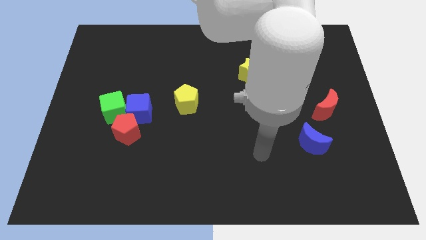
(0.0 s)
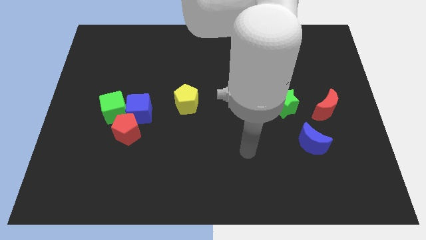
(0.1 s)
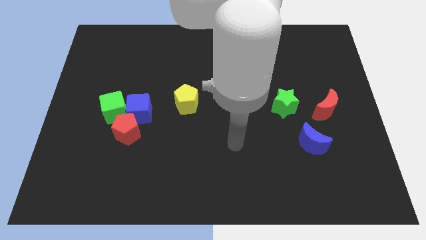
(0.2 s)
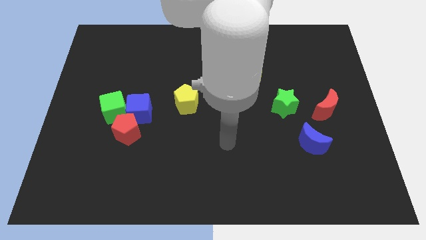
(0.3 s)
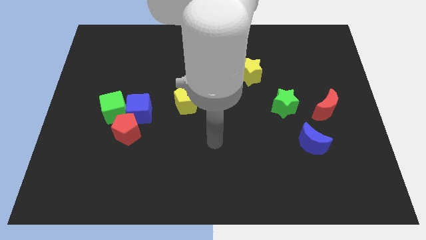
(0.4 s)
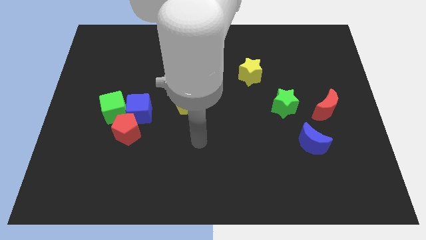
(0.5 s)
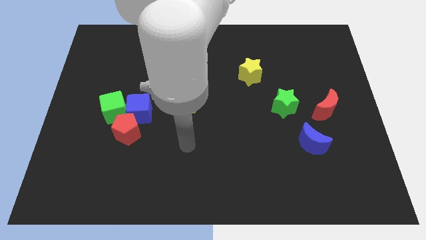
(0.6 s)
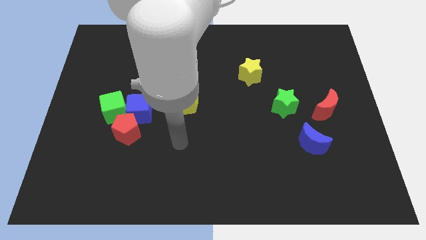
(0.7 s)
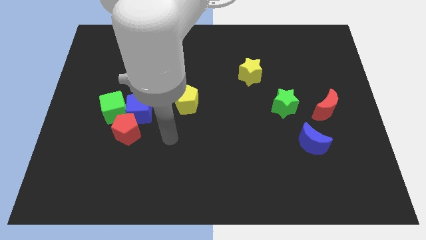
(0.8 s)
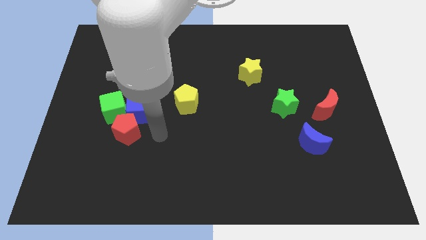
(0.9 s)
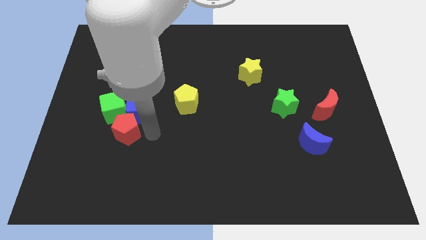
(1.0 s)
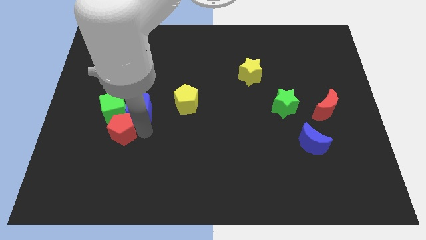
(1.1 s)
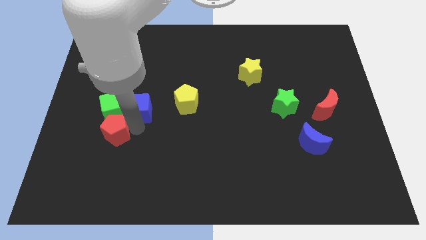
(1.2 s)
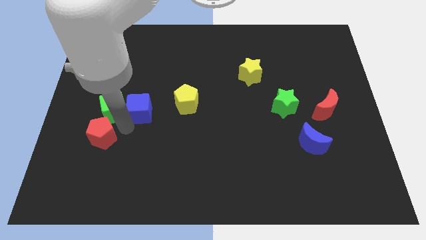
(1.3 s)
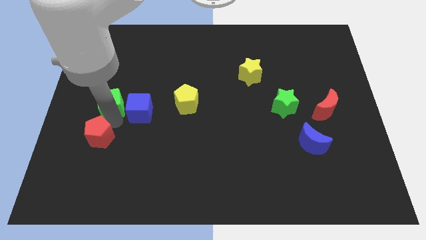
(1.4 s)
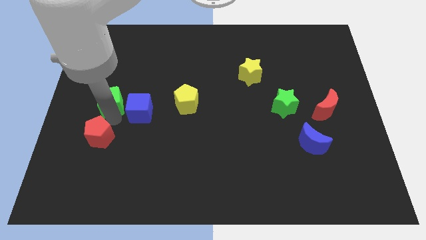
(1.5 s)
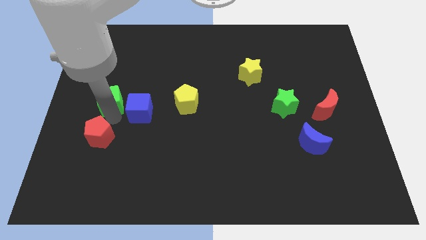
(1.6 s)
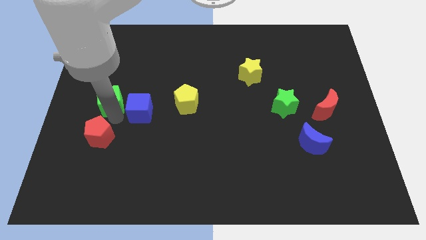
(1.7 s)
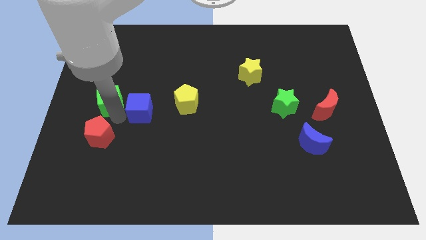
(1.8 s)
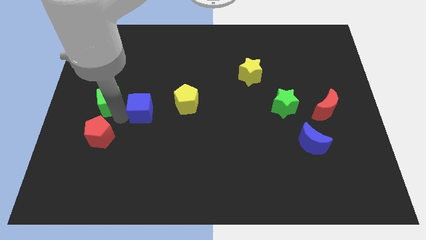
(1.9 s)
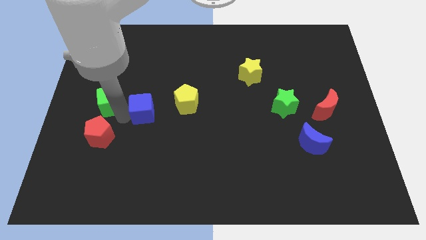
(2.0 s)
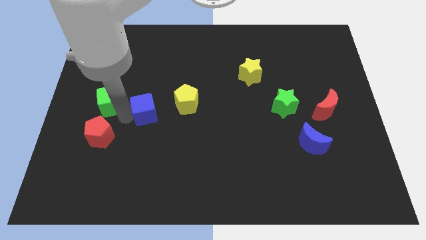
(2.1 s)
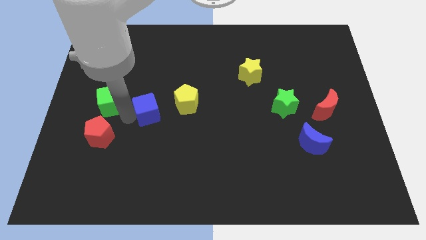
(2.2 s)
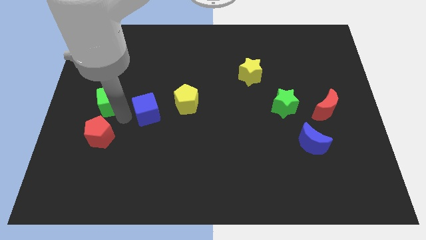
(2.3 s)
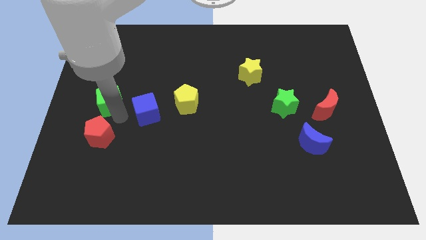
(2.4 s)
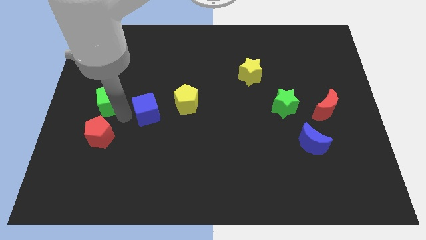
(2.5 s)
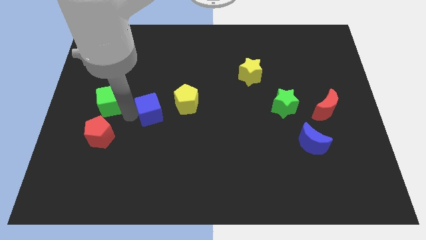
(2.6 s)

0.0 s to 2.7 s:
separate the blue cube from the green cube and red pentagon

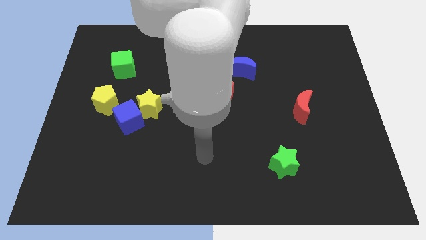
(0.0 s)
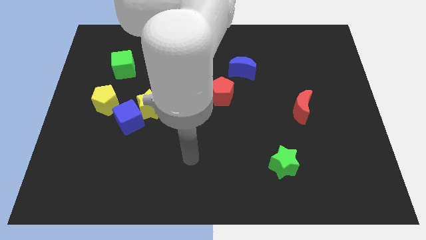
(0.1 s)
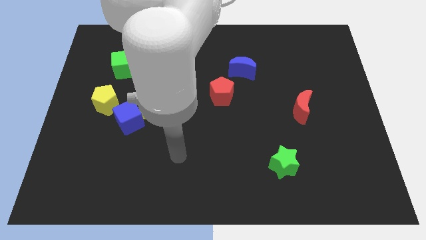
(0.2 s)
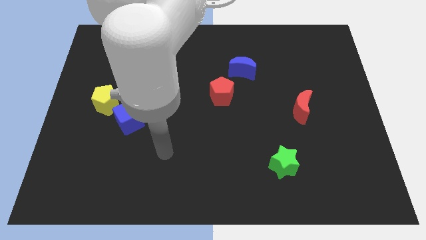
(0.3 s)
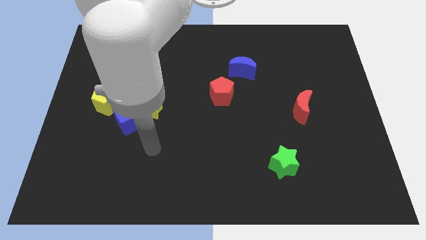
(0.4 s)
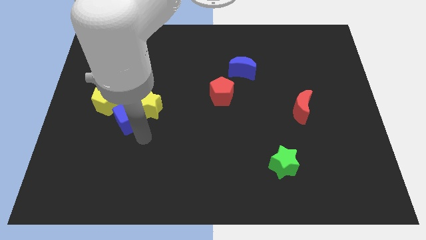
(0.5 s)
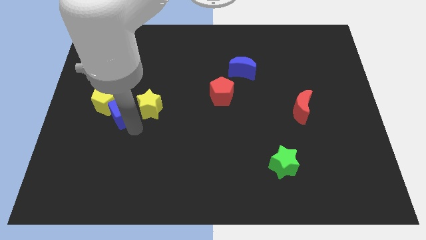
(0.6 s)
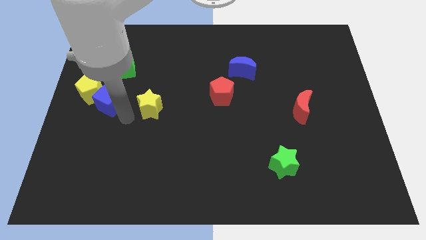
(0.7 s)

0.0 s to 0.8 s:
move the yellow star away from the blue cube

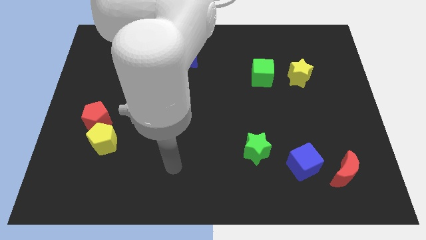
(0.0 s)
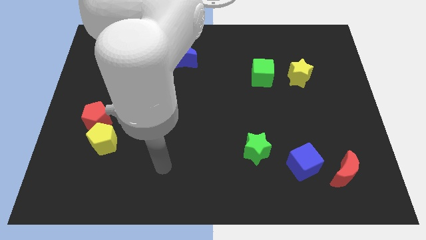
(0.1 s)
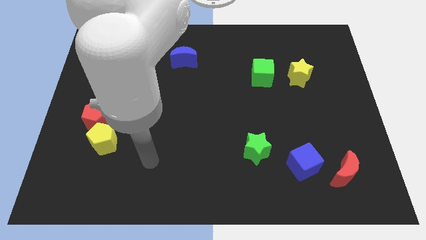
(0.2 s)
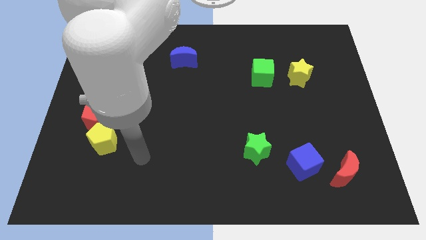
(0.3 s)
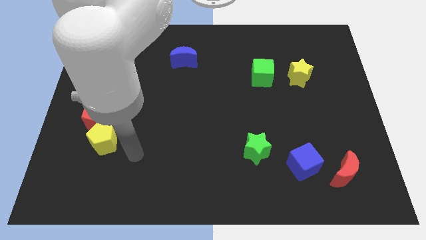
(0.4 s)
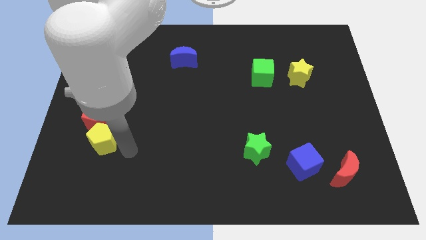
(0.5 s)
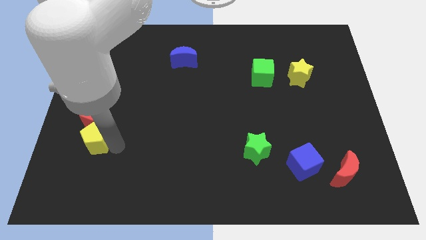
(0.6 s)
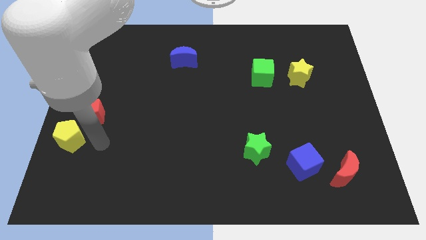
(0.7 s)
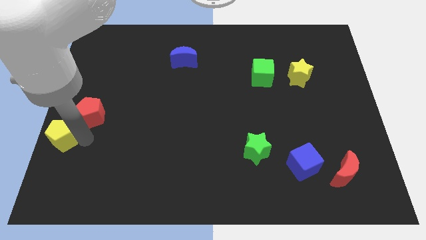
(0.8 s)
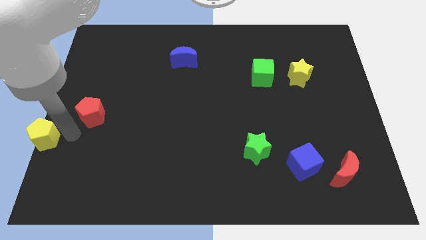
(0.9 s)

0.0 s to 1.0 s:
pull the red pentagon apart from the yellow pentagon

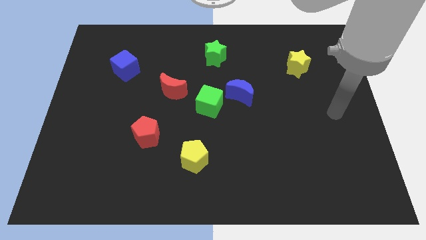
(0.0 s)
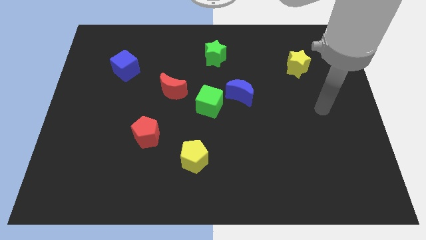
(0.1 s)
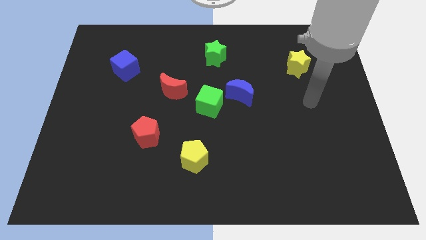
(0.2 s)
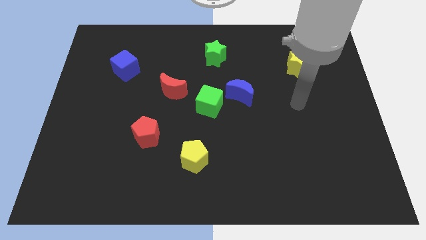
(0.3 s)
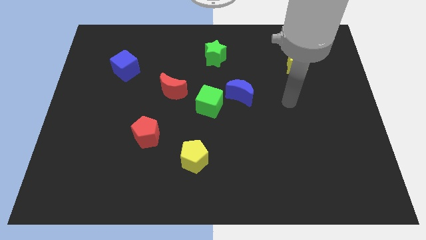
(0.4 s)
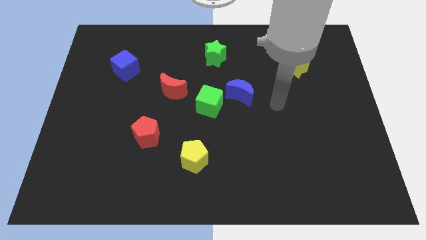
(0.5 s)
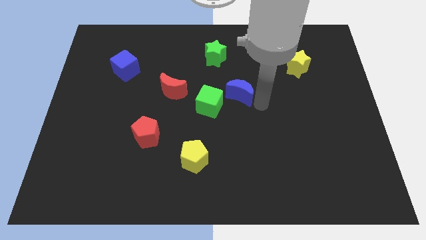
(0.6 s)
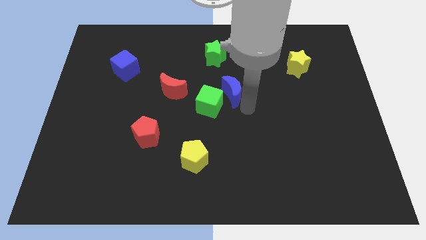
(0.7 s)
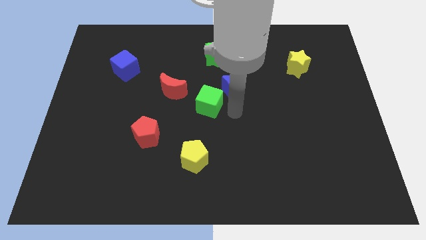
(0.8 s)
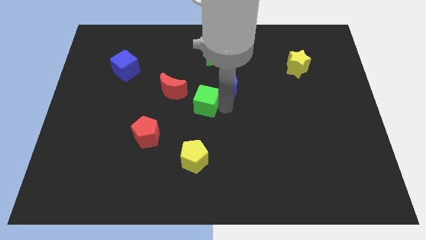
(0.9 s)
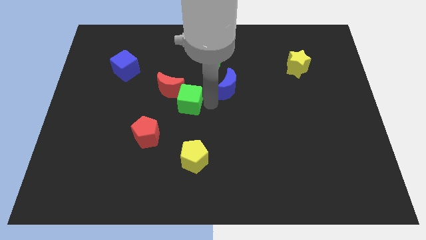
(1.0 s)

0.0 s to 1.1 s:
separate the blue moon from the green cube

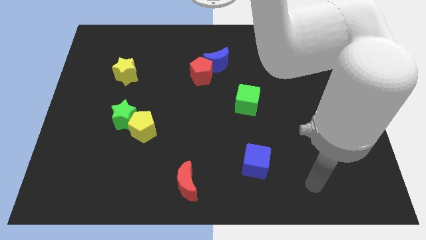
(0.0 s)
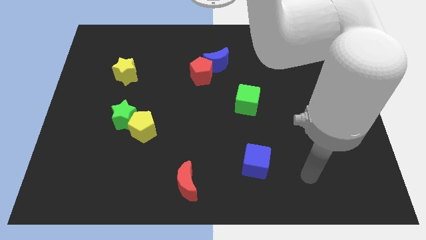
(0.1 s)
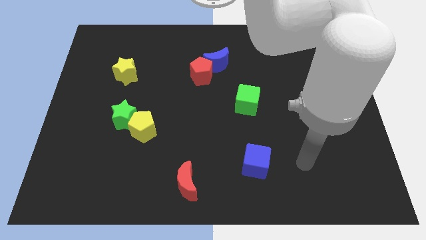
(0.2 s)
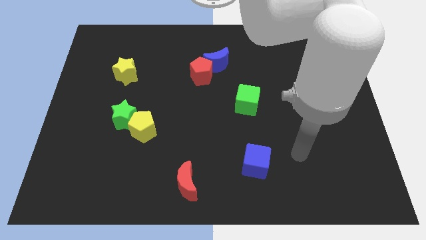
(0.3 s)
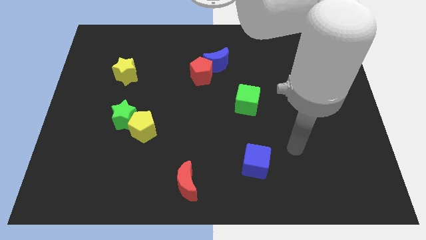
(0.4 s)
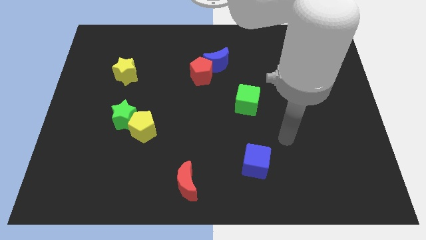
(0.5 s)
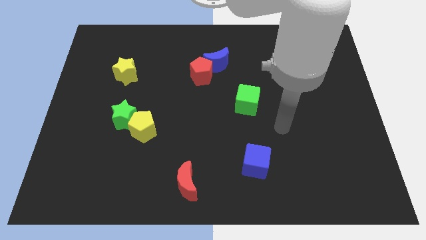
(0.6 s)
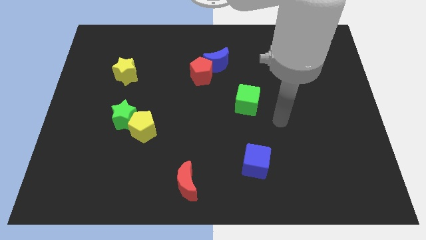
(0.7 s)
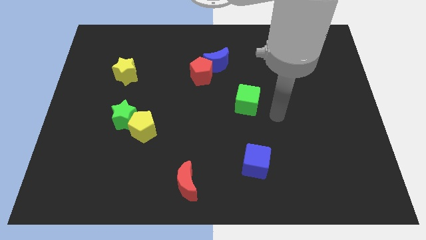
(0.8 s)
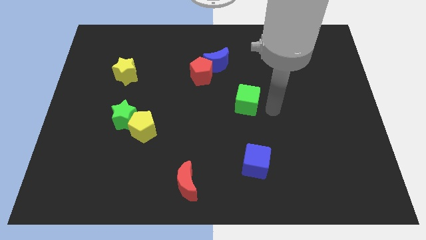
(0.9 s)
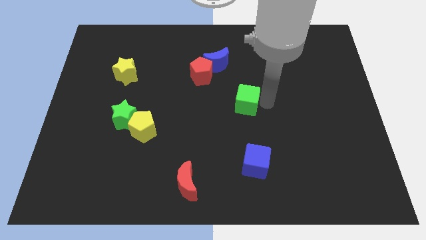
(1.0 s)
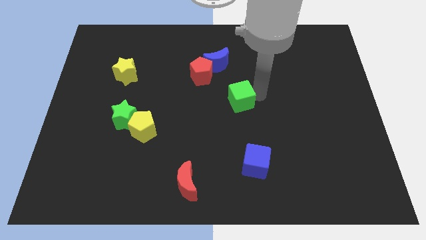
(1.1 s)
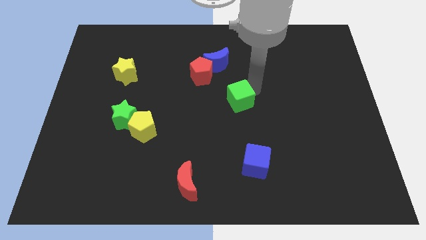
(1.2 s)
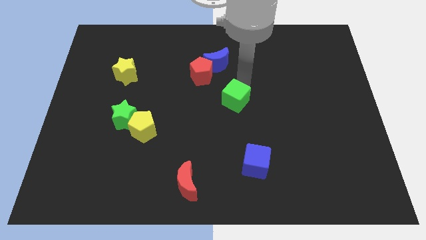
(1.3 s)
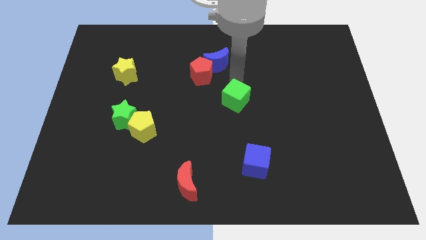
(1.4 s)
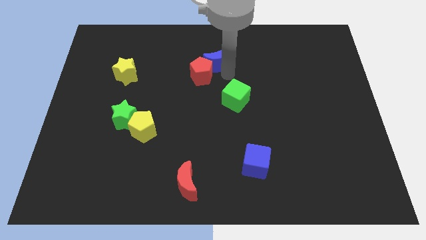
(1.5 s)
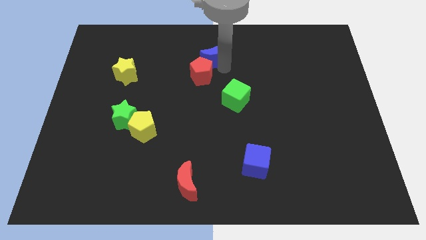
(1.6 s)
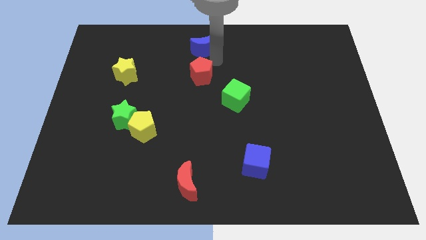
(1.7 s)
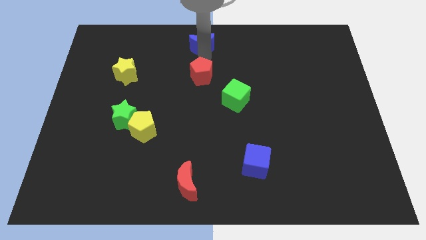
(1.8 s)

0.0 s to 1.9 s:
move the red pentagon away from the blue moon

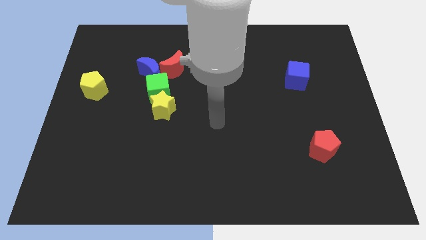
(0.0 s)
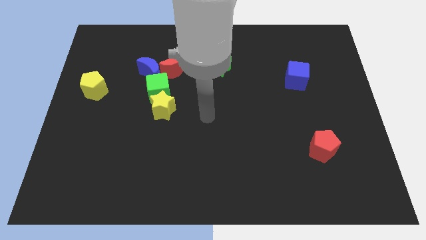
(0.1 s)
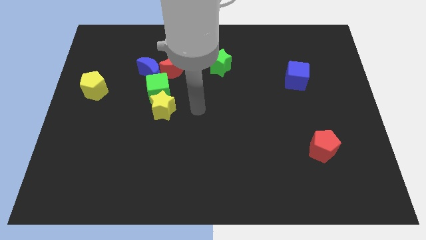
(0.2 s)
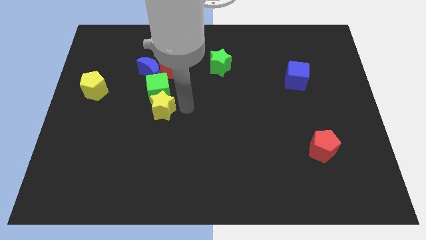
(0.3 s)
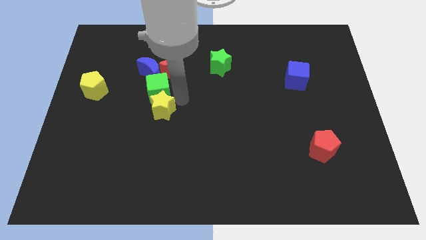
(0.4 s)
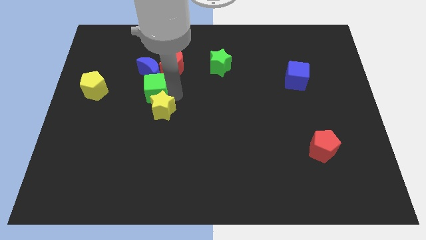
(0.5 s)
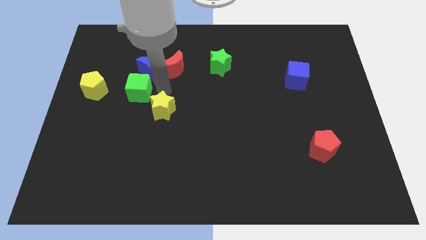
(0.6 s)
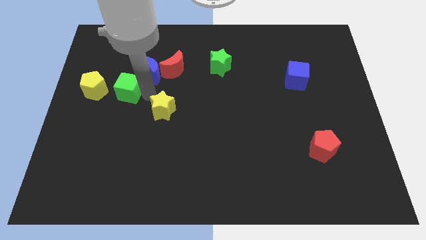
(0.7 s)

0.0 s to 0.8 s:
pull the yellow star apart from the green cube

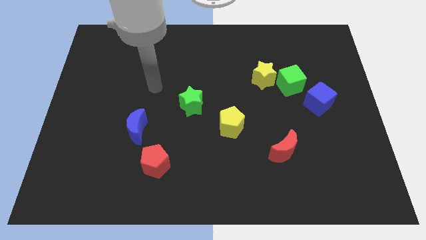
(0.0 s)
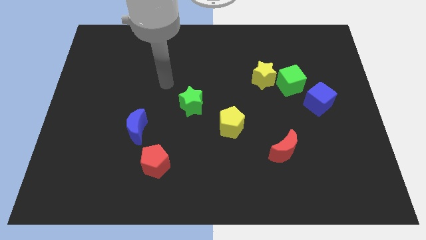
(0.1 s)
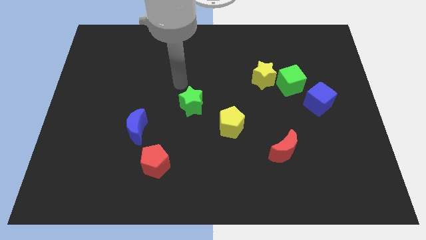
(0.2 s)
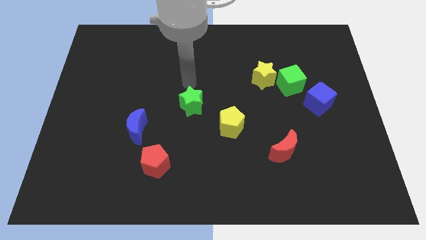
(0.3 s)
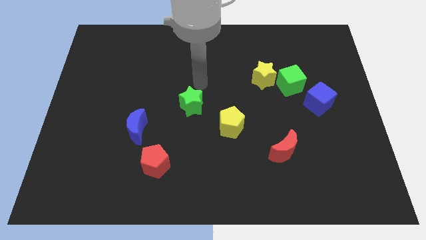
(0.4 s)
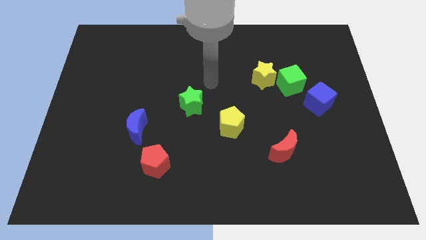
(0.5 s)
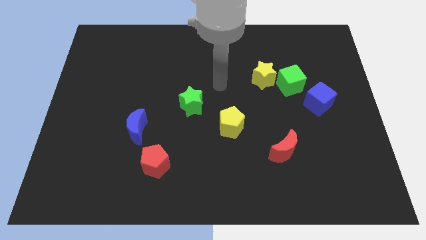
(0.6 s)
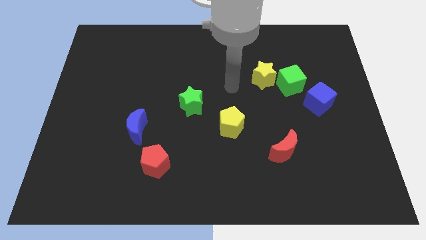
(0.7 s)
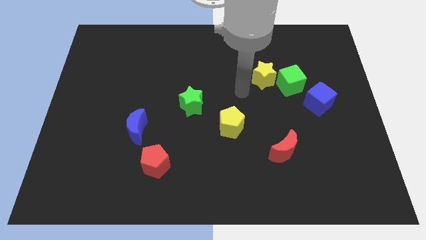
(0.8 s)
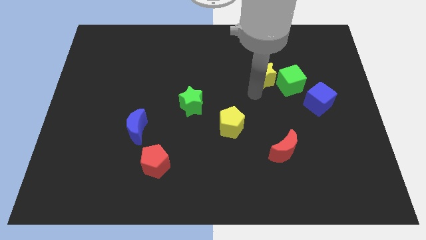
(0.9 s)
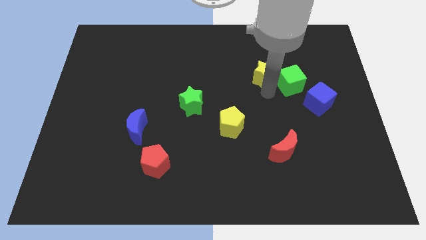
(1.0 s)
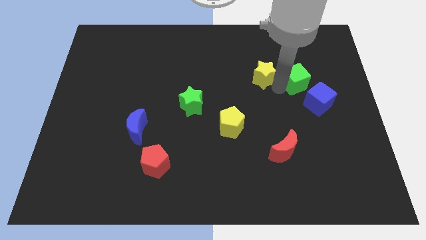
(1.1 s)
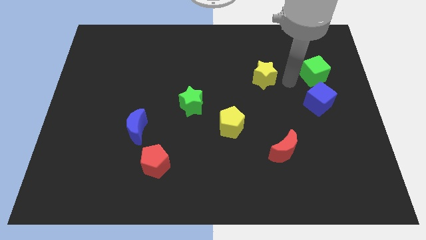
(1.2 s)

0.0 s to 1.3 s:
move the yellow star away from the green cube
